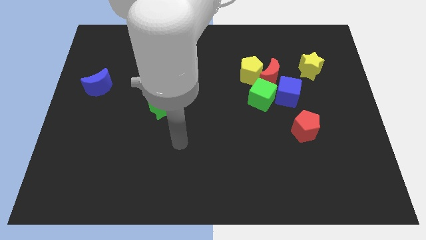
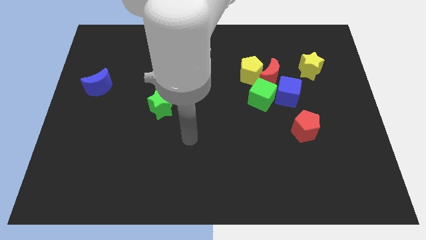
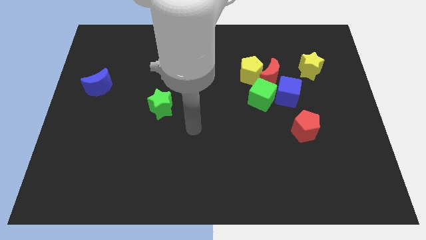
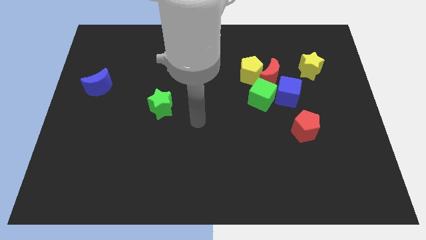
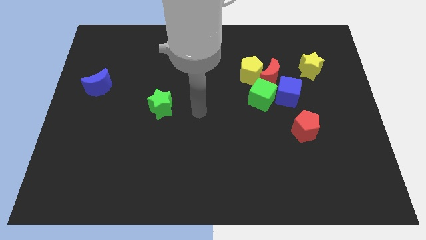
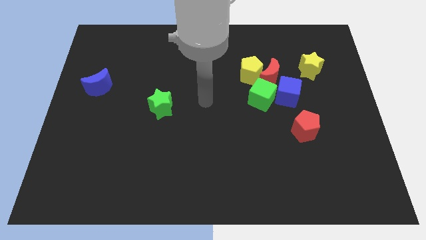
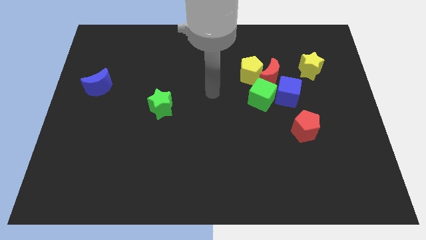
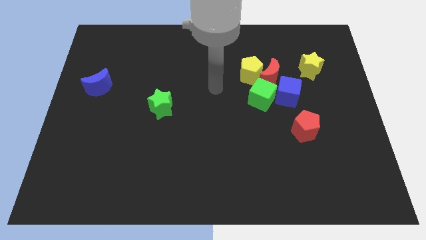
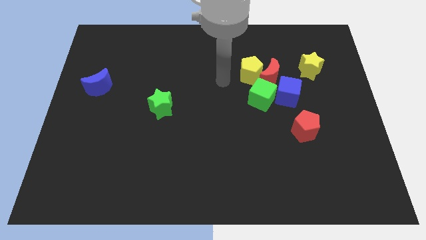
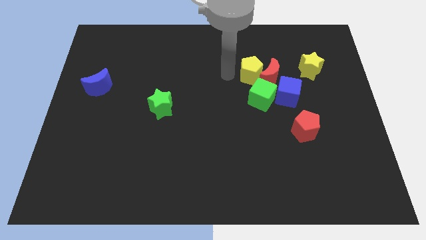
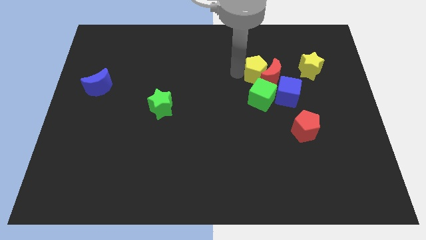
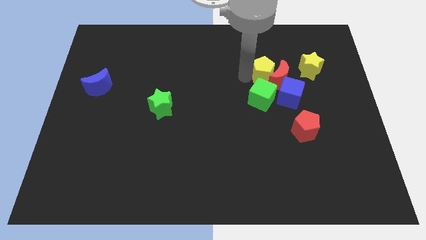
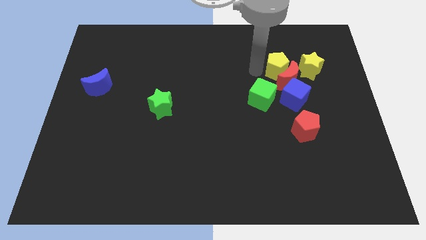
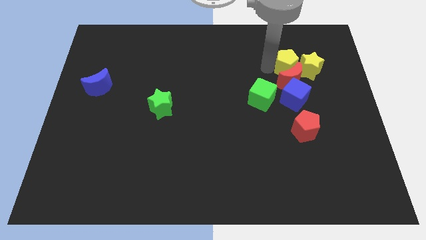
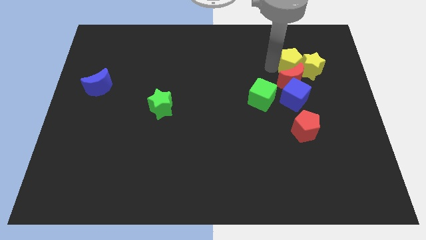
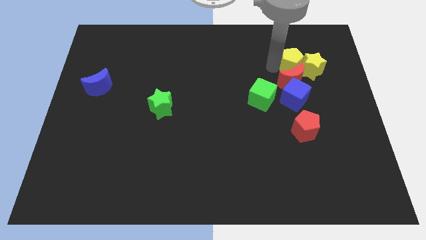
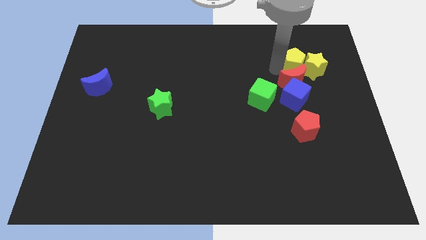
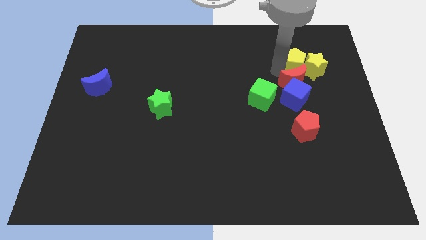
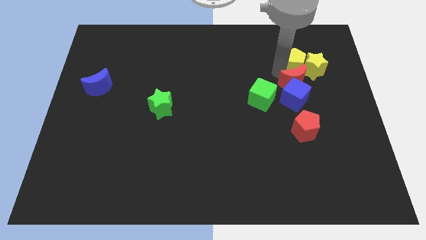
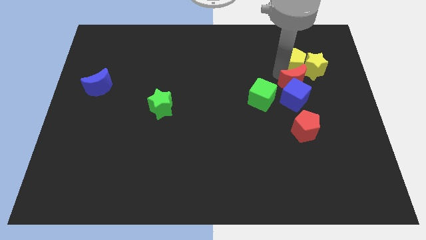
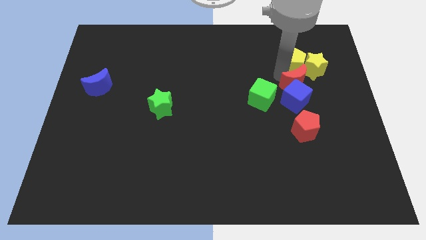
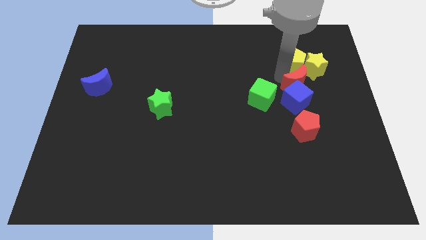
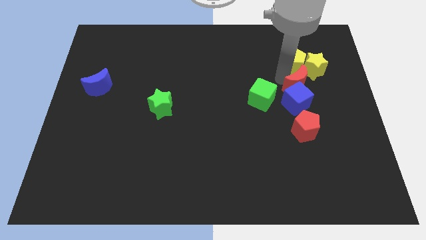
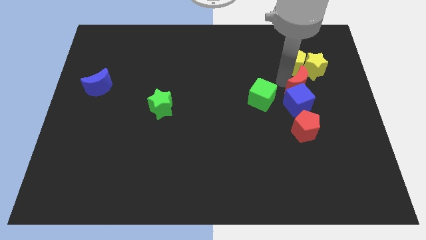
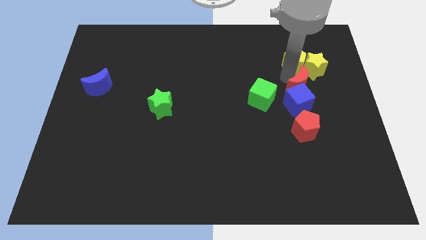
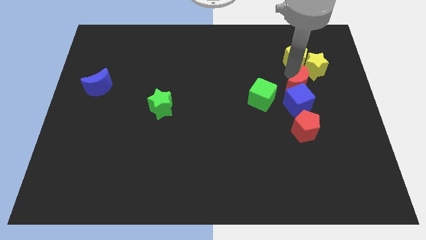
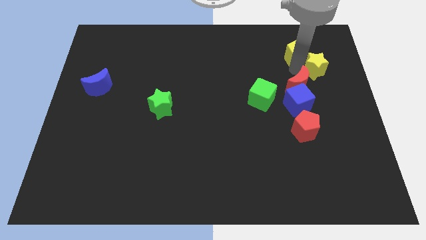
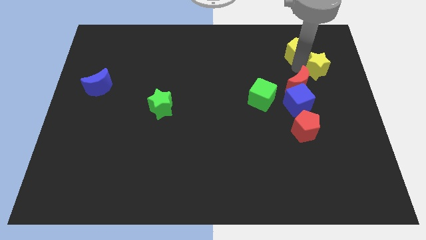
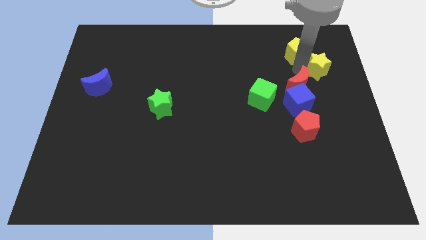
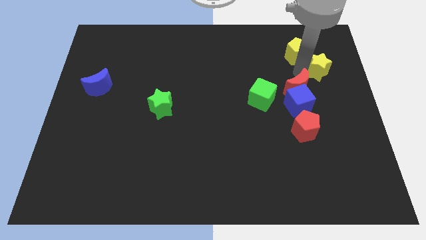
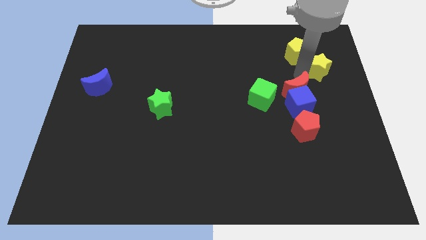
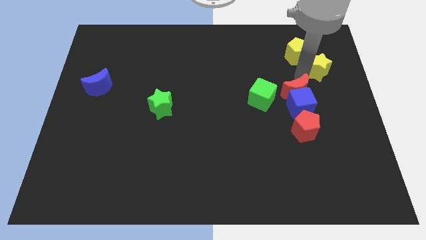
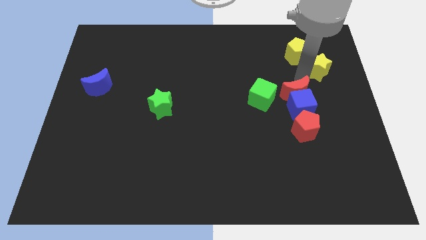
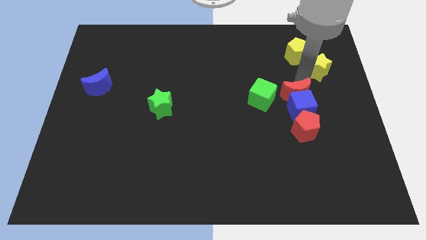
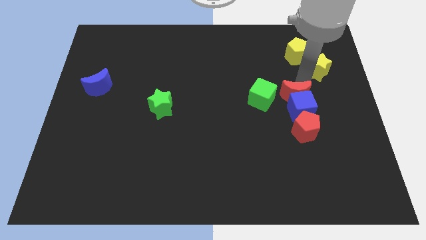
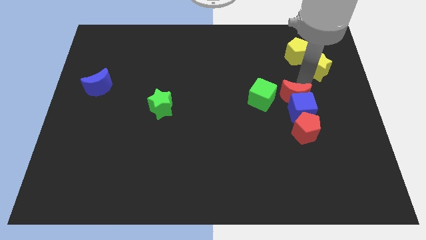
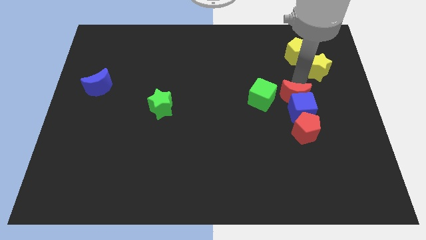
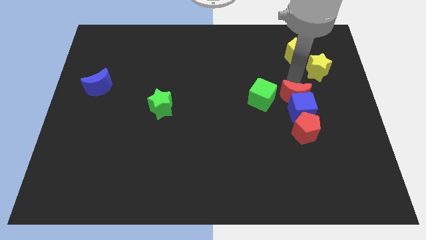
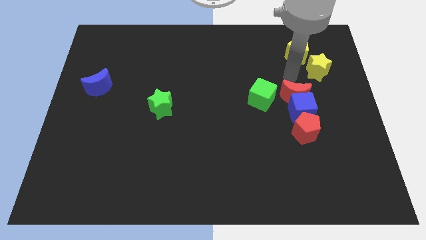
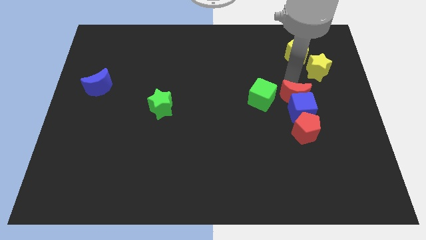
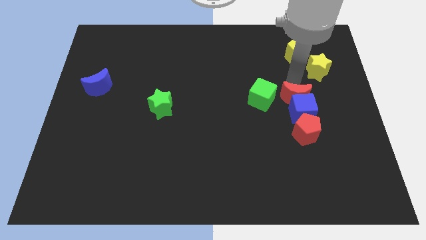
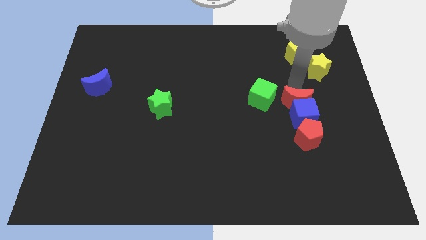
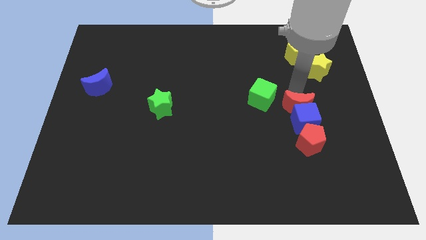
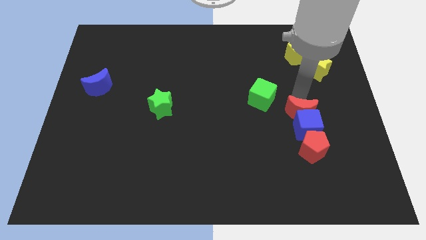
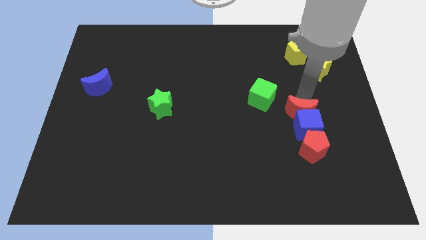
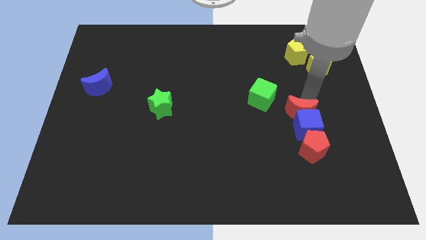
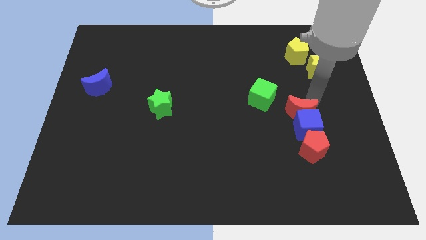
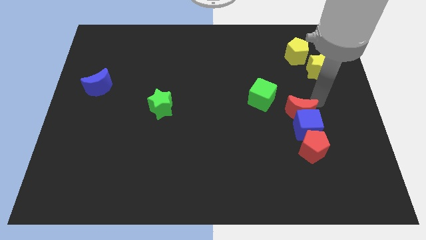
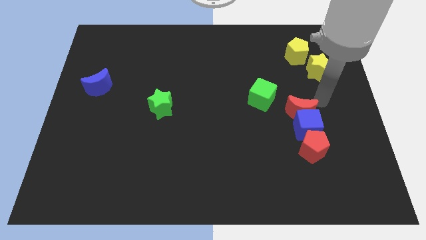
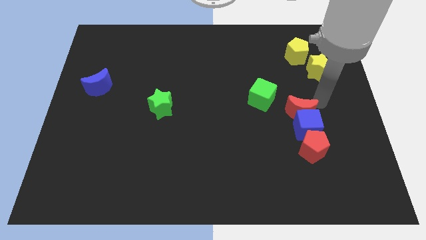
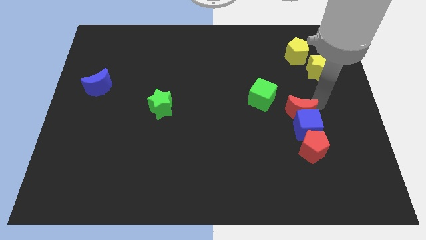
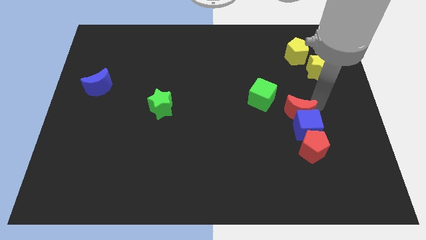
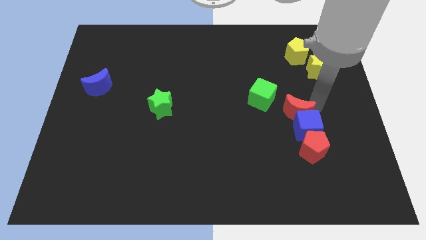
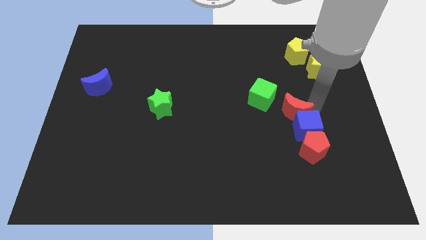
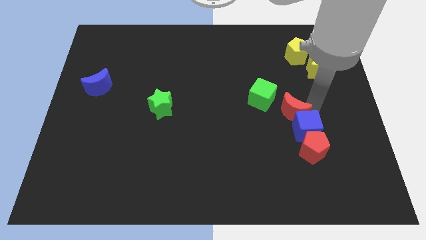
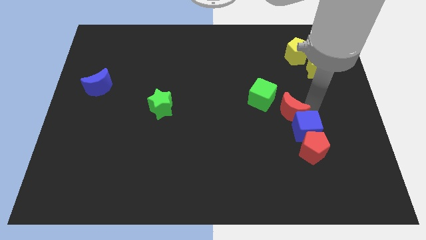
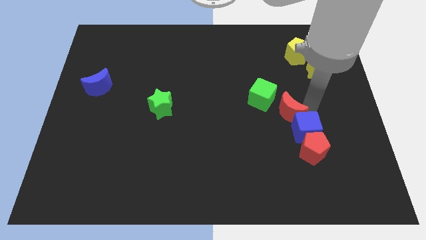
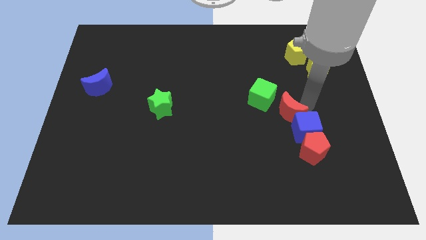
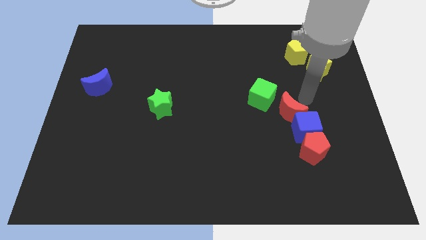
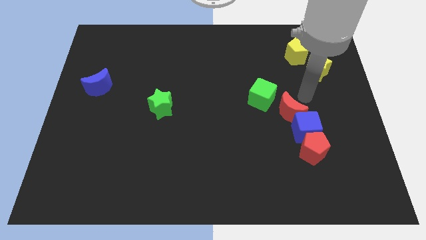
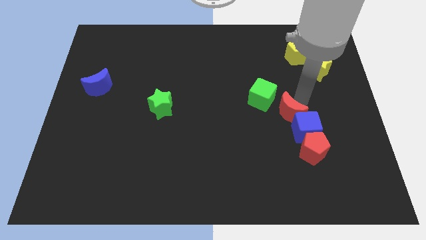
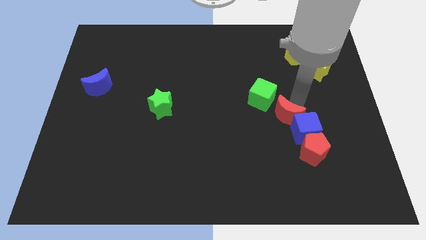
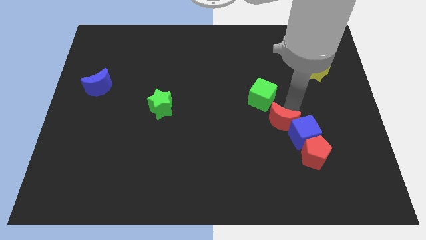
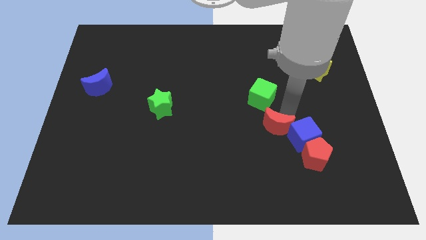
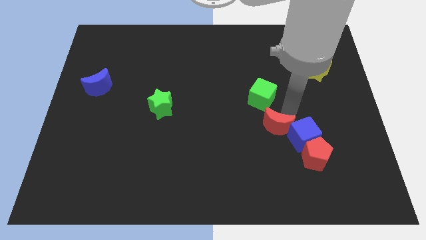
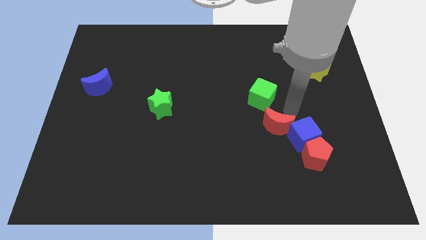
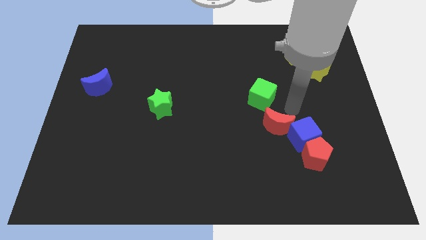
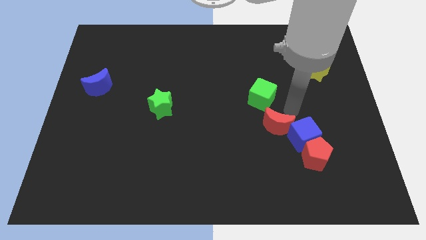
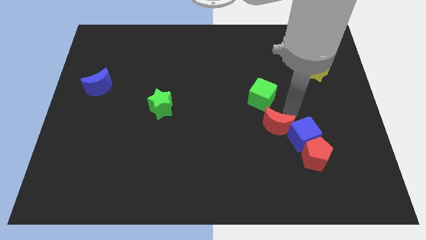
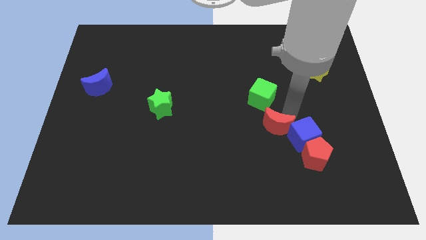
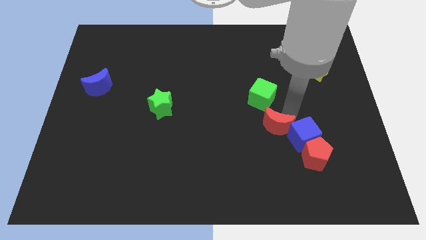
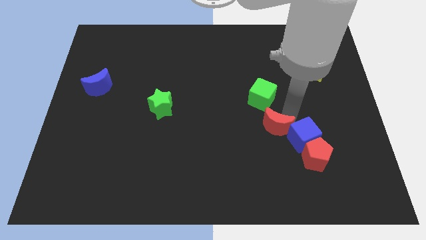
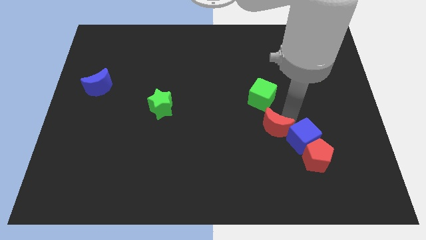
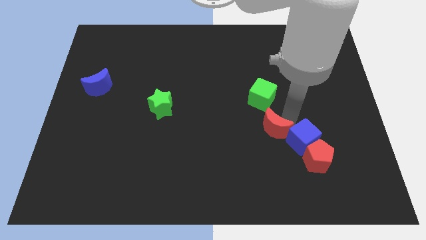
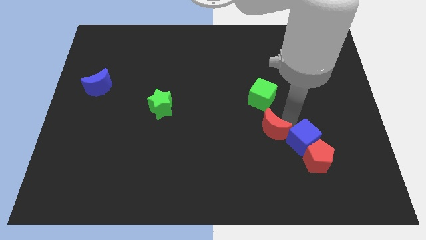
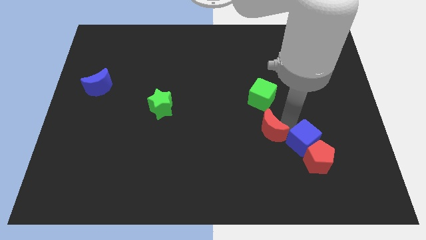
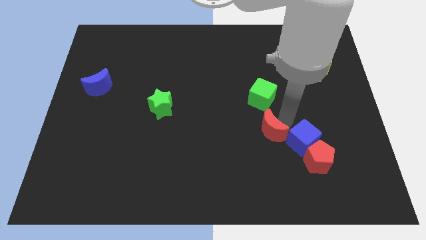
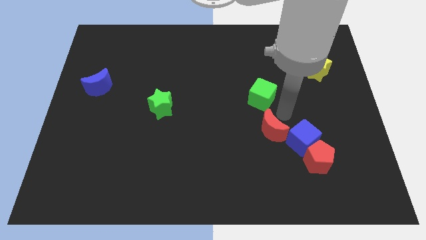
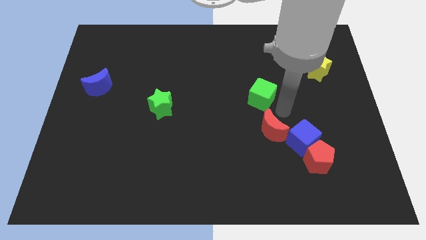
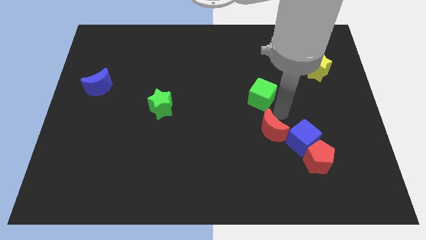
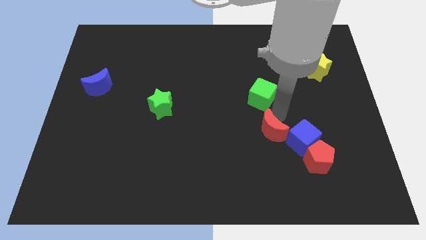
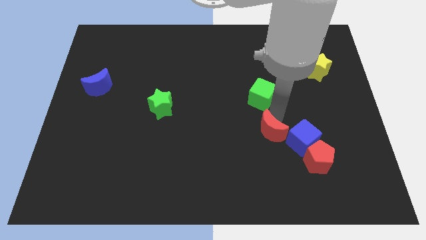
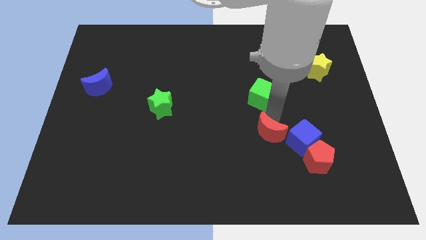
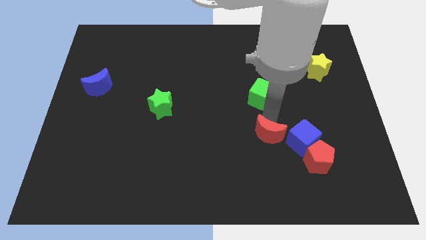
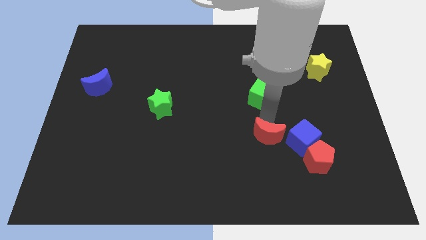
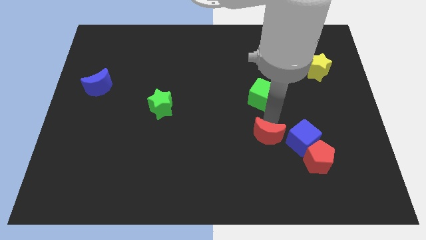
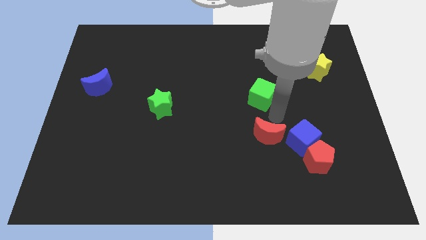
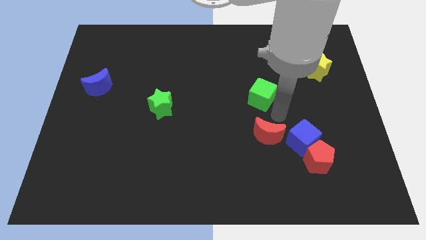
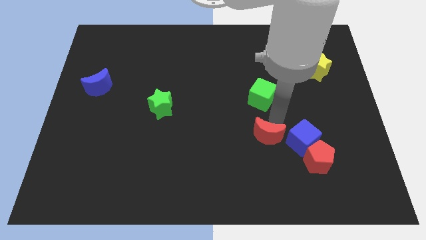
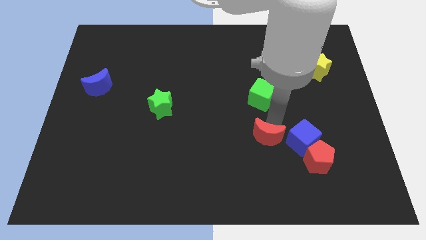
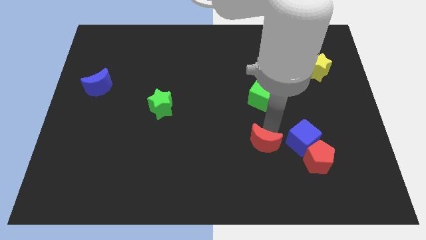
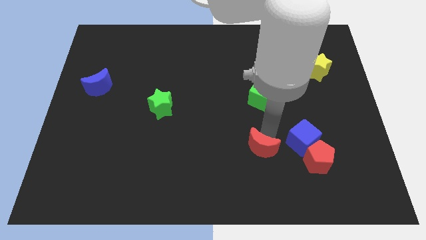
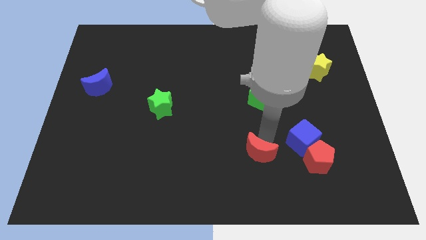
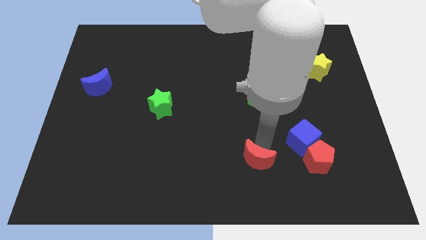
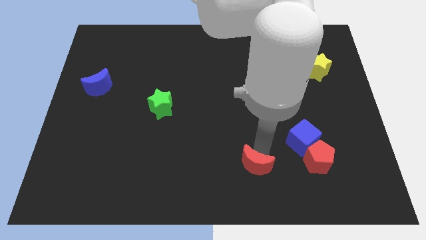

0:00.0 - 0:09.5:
move the red moon to the bottom side
